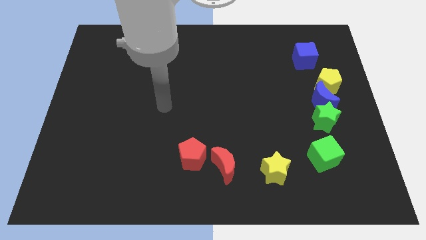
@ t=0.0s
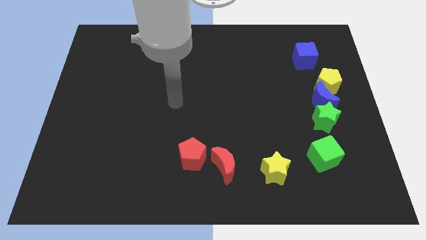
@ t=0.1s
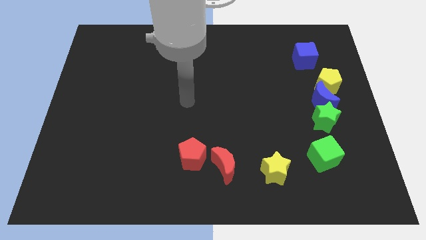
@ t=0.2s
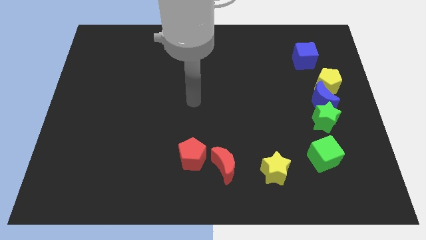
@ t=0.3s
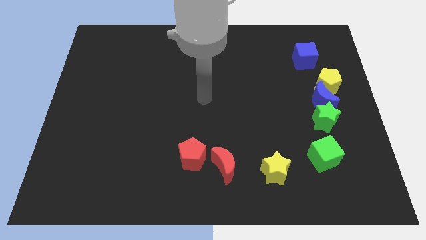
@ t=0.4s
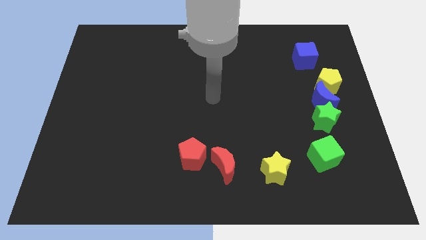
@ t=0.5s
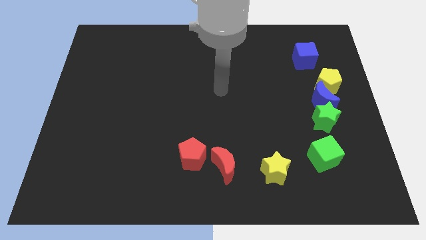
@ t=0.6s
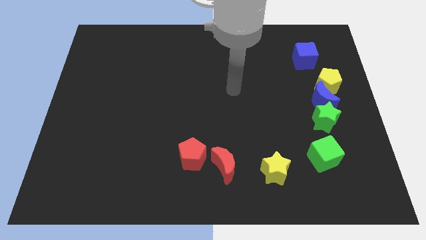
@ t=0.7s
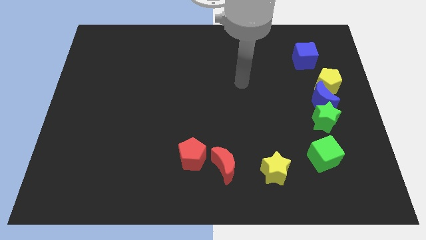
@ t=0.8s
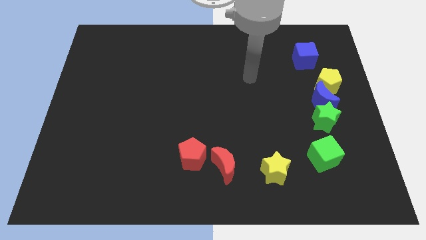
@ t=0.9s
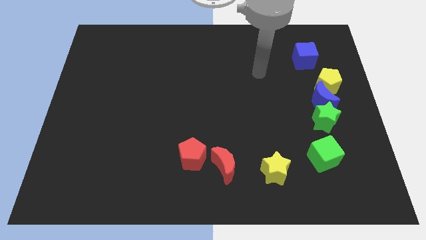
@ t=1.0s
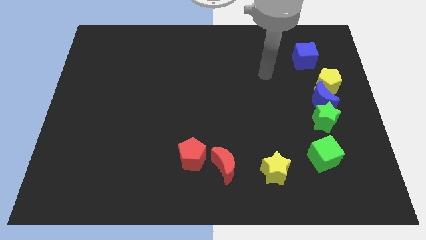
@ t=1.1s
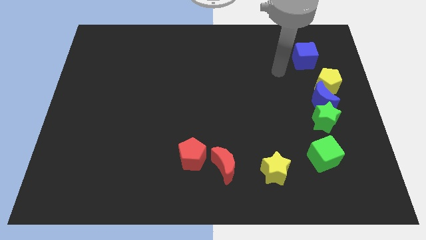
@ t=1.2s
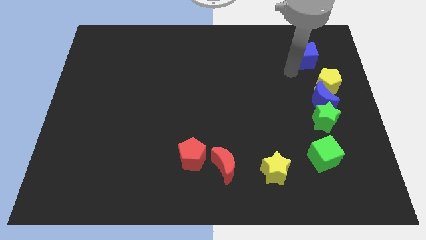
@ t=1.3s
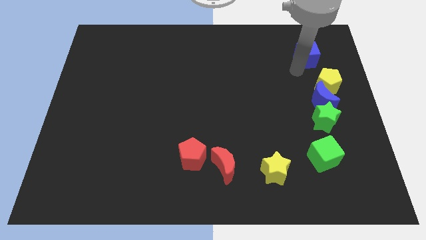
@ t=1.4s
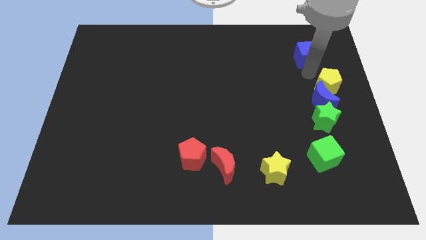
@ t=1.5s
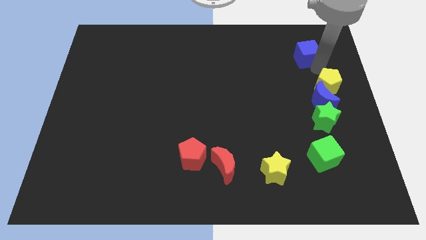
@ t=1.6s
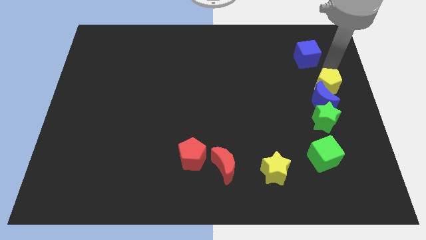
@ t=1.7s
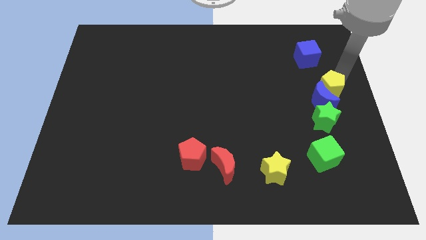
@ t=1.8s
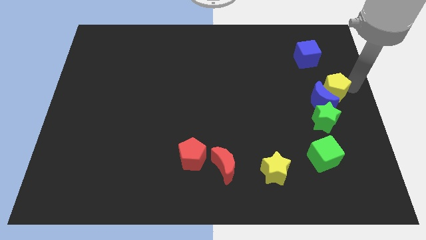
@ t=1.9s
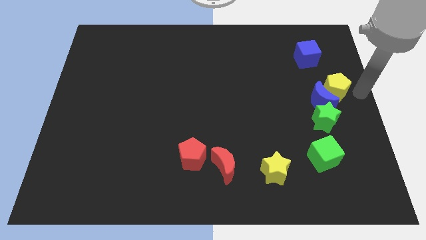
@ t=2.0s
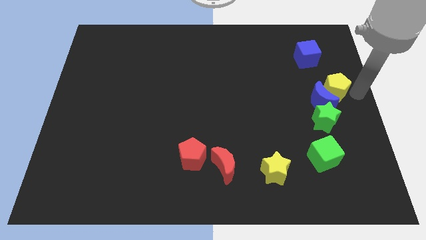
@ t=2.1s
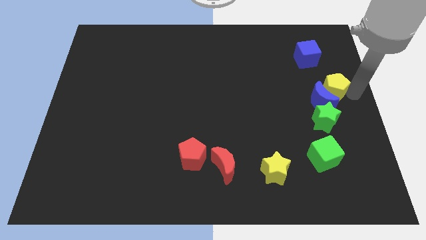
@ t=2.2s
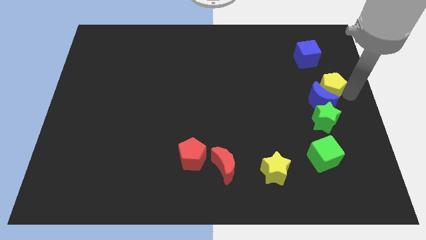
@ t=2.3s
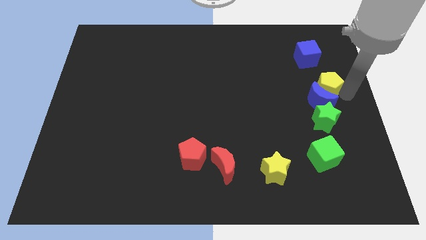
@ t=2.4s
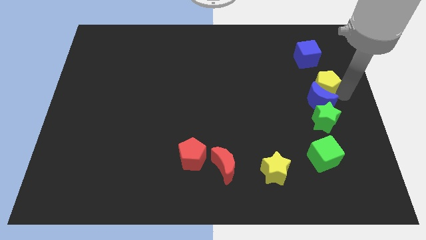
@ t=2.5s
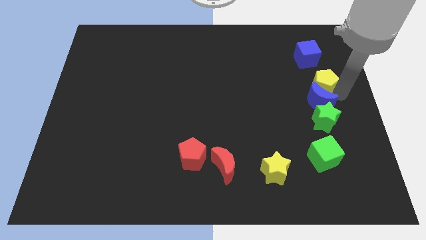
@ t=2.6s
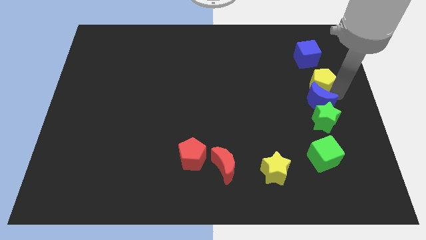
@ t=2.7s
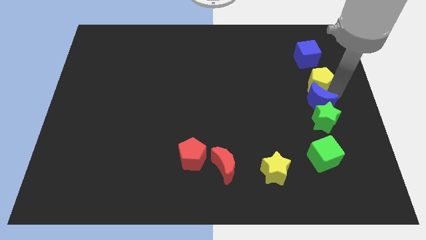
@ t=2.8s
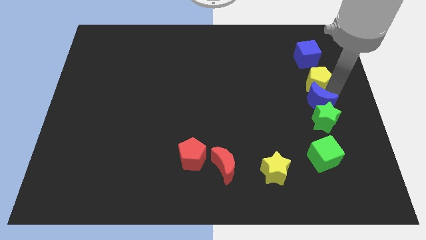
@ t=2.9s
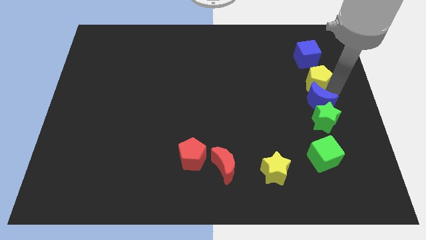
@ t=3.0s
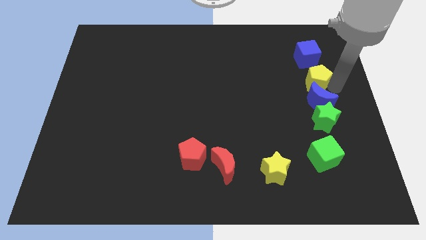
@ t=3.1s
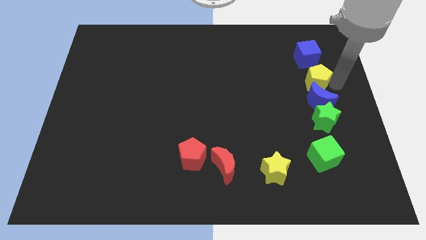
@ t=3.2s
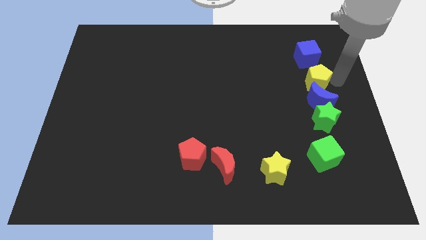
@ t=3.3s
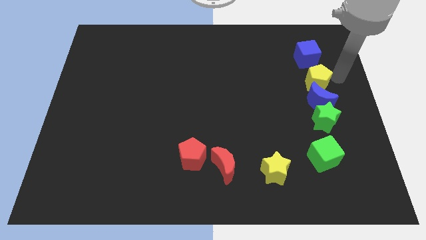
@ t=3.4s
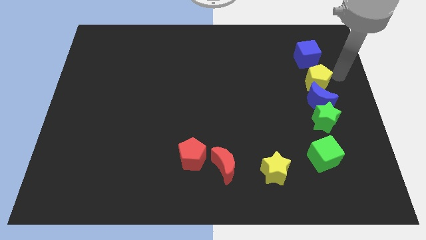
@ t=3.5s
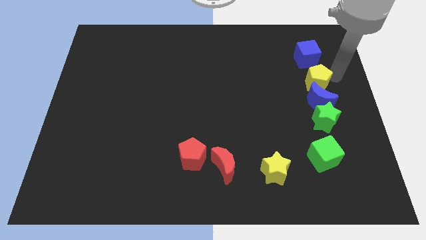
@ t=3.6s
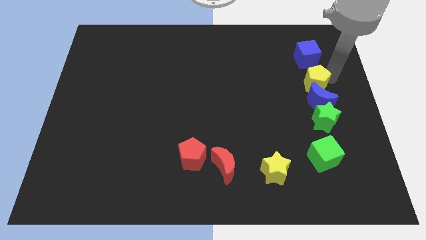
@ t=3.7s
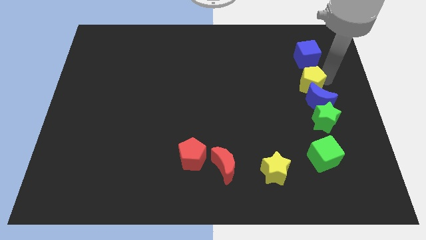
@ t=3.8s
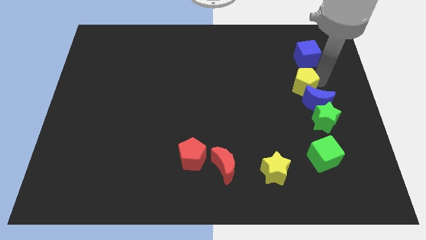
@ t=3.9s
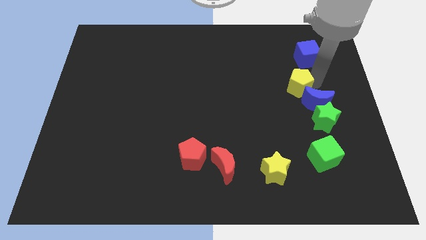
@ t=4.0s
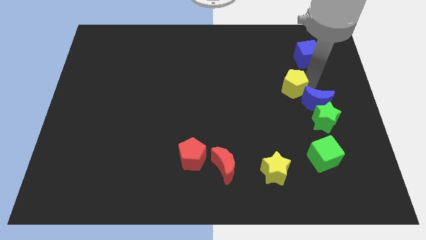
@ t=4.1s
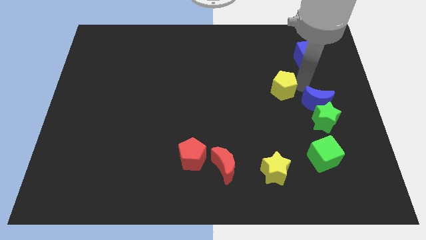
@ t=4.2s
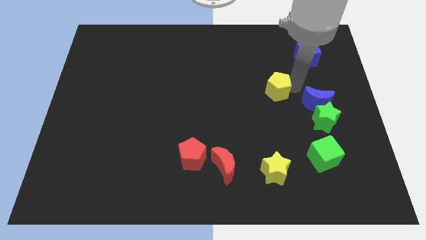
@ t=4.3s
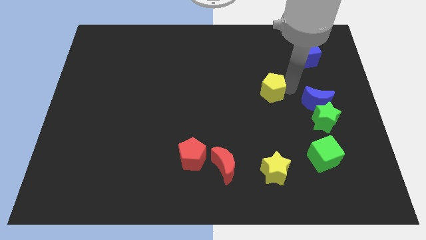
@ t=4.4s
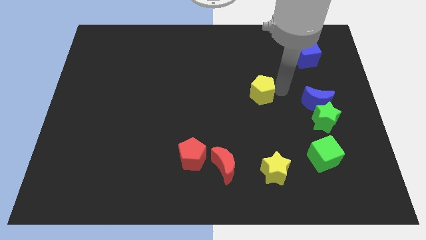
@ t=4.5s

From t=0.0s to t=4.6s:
slide the yellow pentagon to the middle of the board

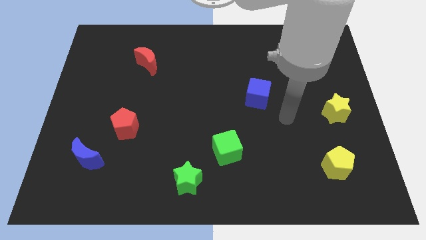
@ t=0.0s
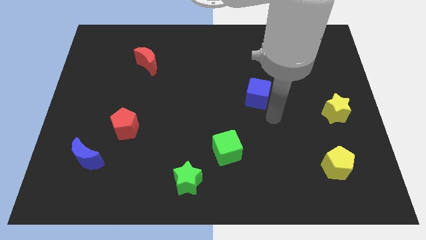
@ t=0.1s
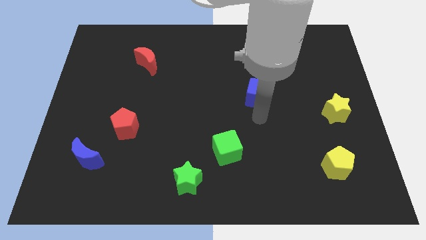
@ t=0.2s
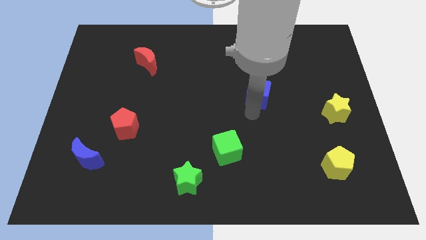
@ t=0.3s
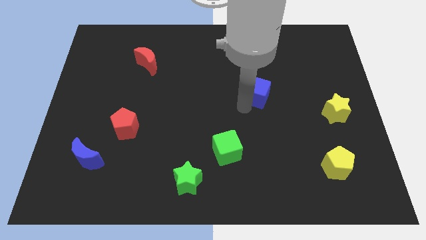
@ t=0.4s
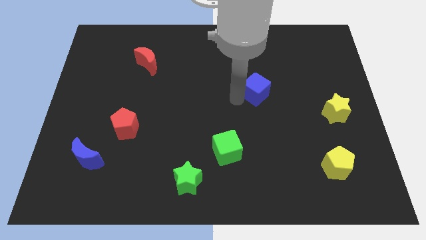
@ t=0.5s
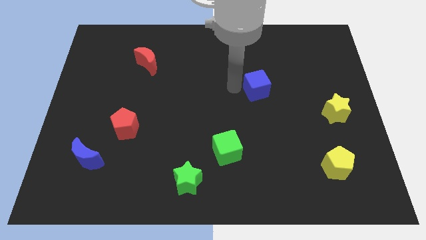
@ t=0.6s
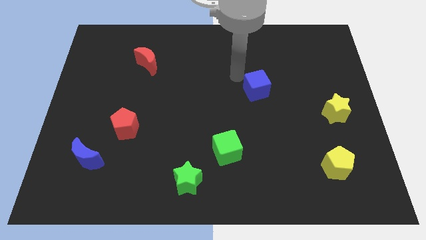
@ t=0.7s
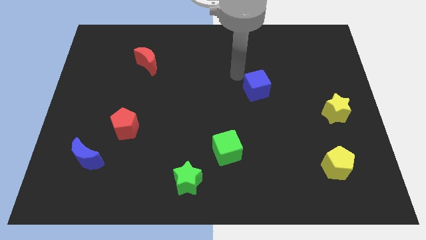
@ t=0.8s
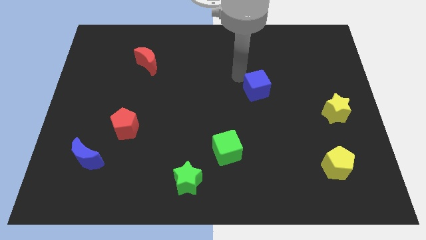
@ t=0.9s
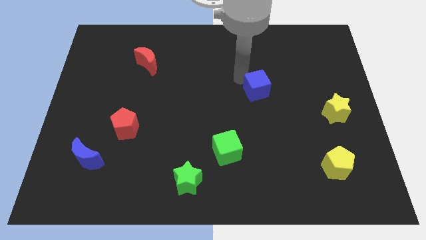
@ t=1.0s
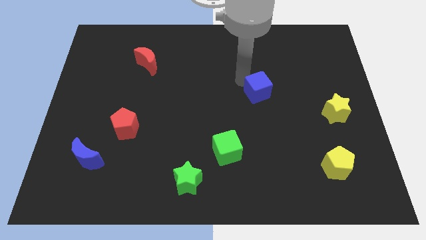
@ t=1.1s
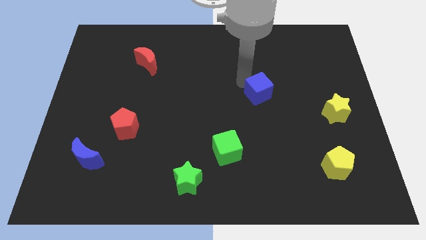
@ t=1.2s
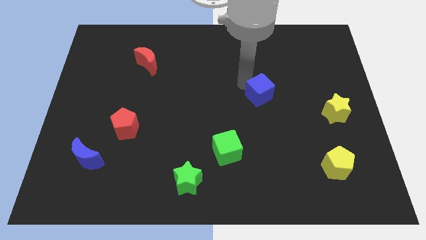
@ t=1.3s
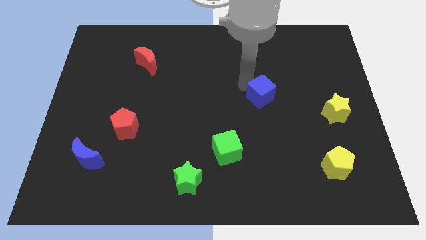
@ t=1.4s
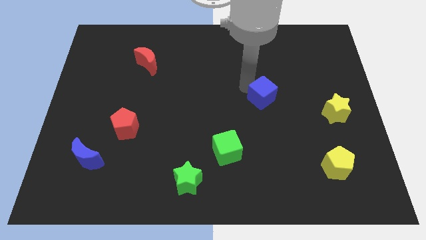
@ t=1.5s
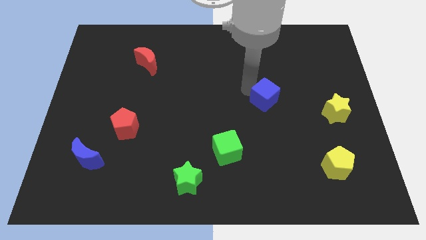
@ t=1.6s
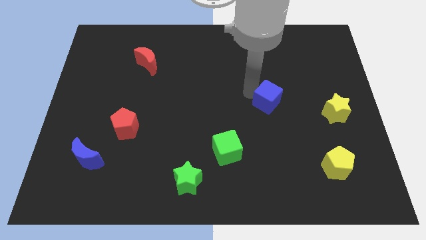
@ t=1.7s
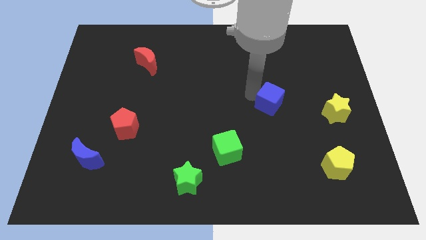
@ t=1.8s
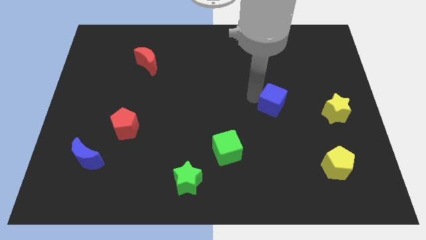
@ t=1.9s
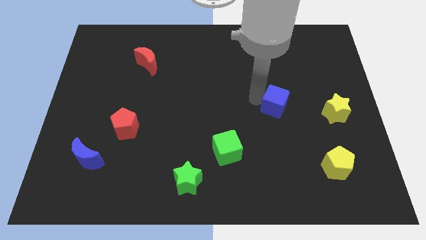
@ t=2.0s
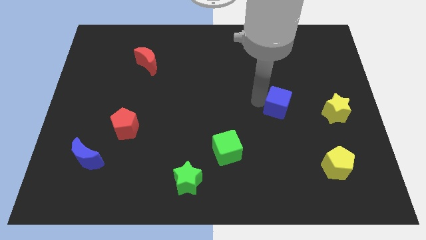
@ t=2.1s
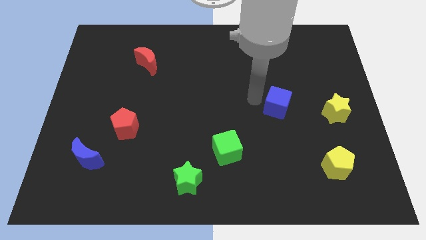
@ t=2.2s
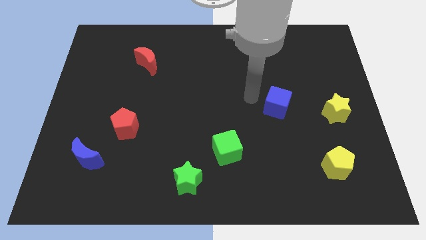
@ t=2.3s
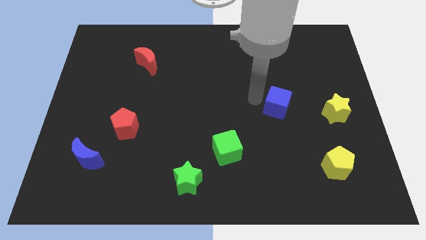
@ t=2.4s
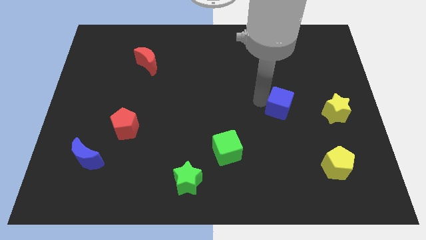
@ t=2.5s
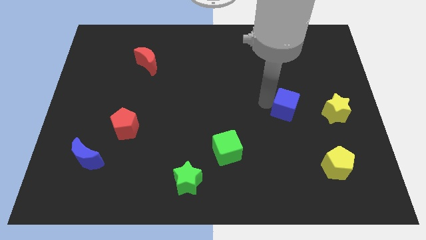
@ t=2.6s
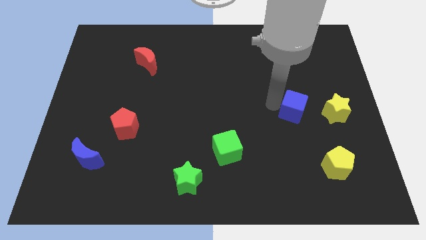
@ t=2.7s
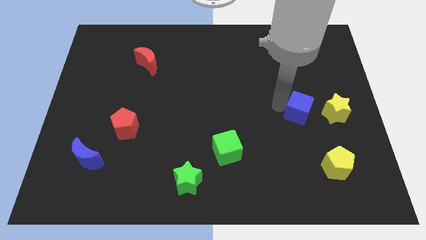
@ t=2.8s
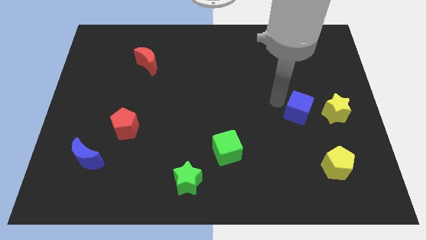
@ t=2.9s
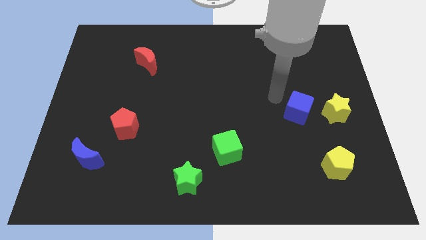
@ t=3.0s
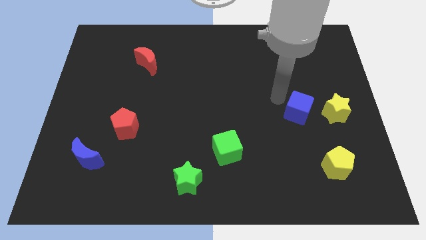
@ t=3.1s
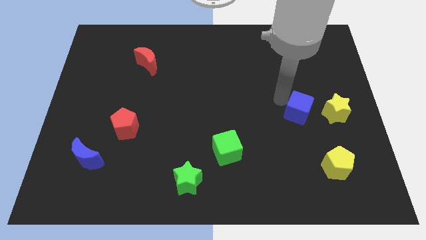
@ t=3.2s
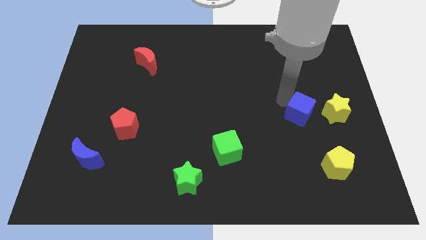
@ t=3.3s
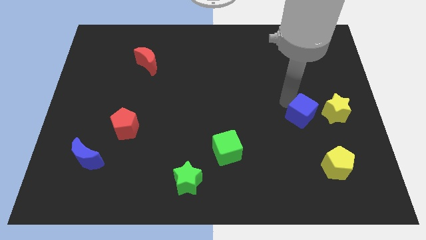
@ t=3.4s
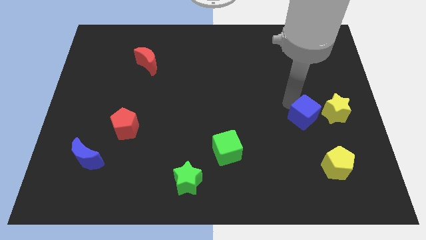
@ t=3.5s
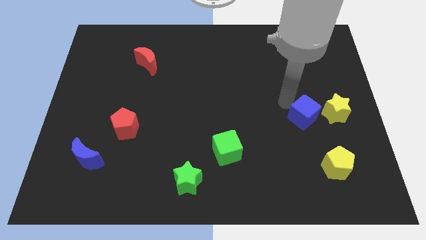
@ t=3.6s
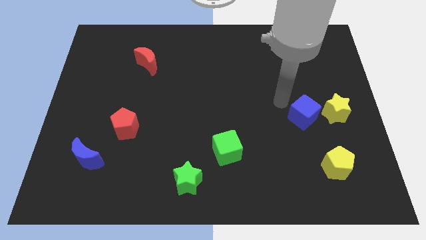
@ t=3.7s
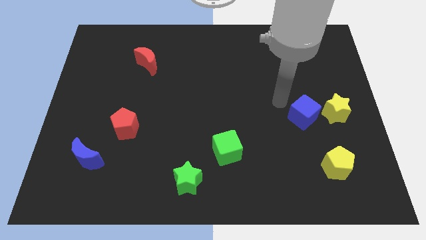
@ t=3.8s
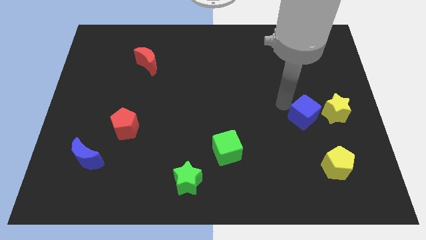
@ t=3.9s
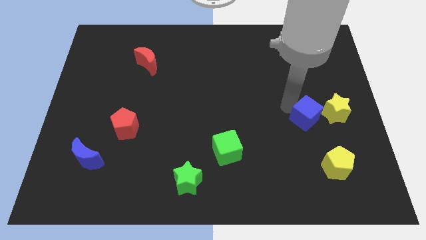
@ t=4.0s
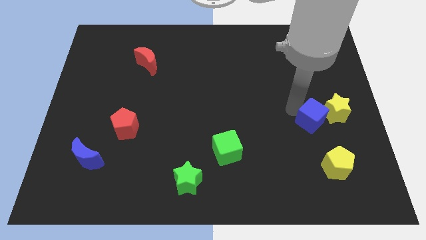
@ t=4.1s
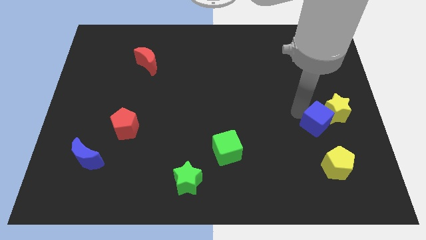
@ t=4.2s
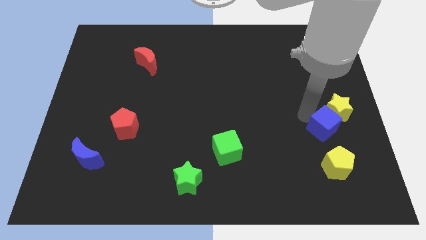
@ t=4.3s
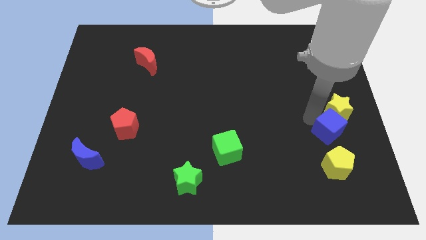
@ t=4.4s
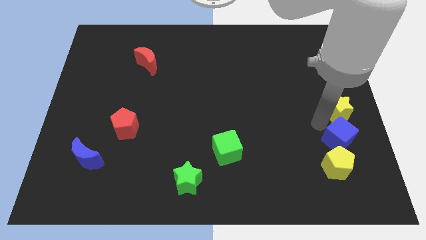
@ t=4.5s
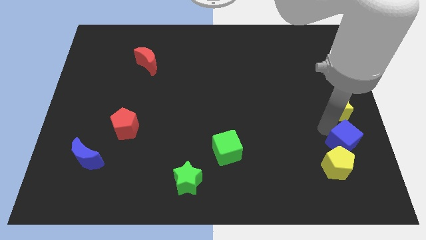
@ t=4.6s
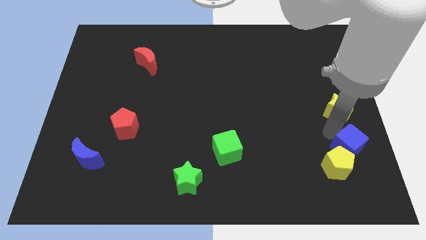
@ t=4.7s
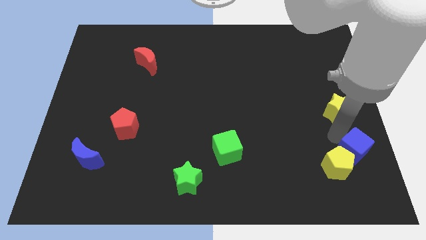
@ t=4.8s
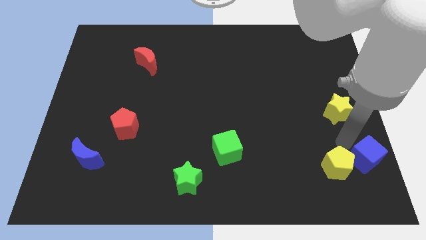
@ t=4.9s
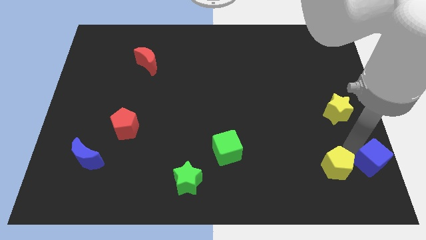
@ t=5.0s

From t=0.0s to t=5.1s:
slide the blue cube to the bottom right corner
